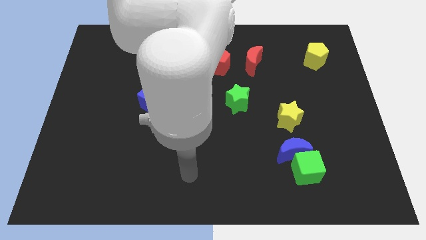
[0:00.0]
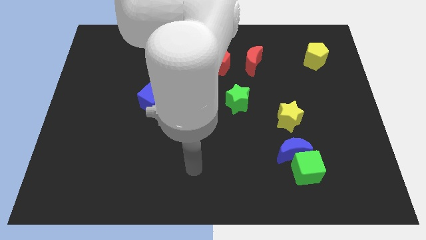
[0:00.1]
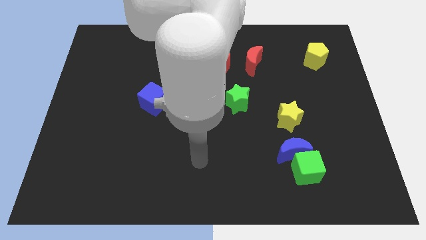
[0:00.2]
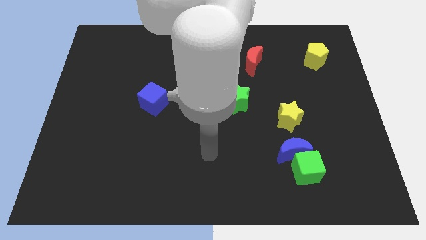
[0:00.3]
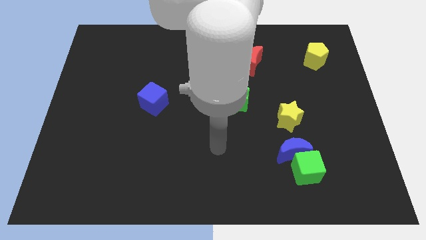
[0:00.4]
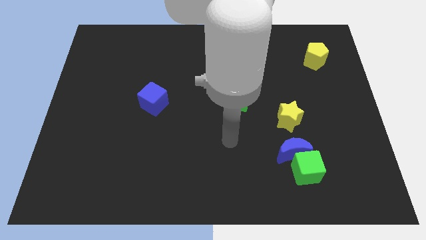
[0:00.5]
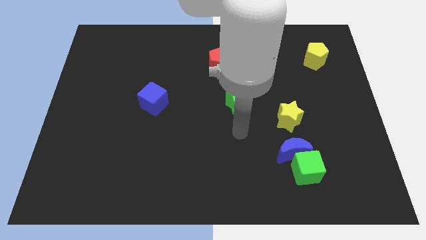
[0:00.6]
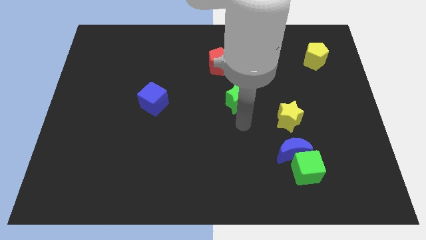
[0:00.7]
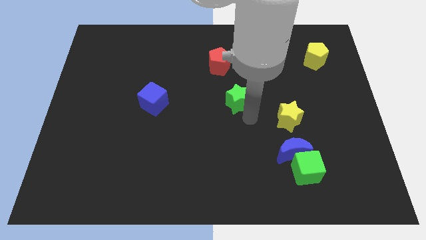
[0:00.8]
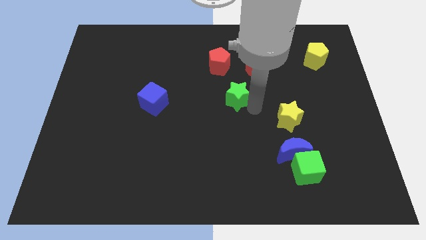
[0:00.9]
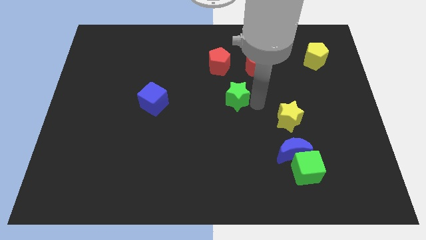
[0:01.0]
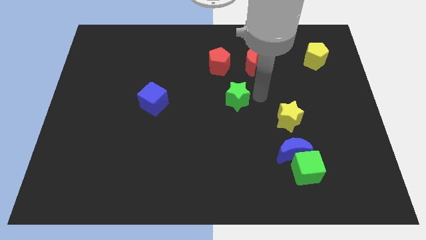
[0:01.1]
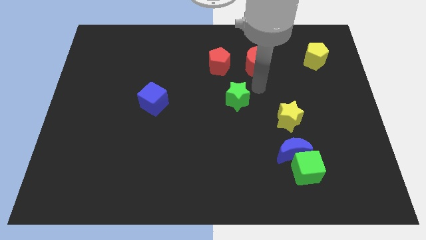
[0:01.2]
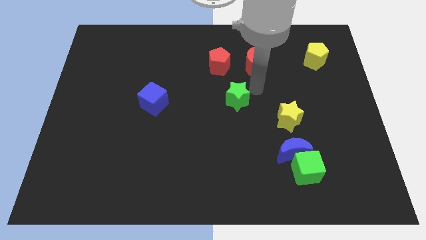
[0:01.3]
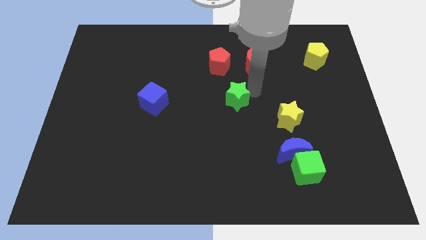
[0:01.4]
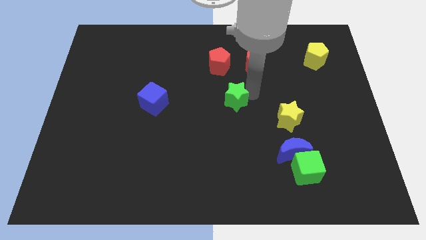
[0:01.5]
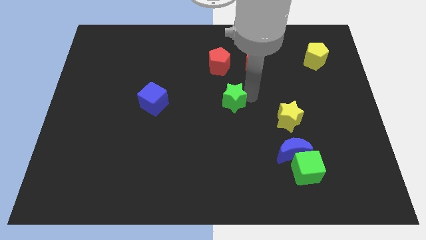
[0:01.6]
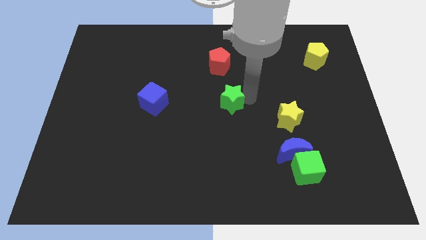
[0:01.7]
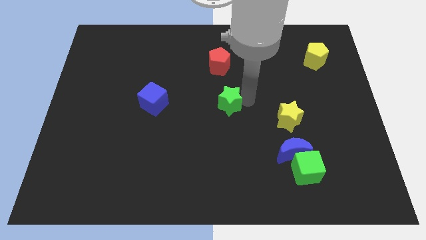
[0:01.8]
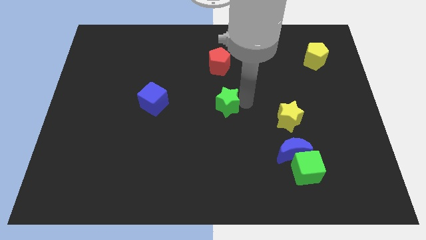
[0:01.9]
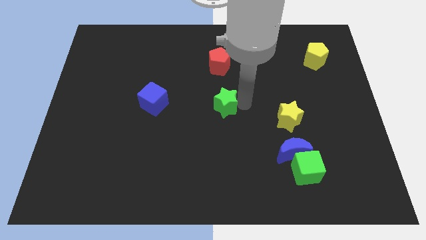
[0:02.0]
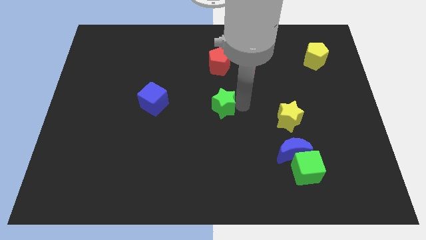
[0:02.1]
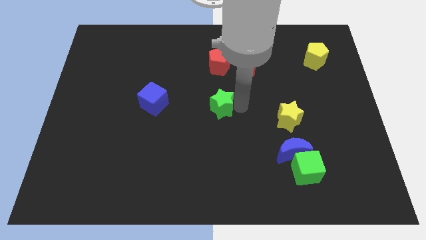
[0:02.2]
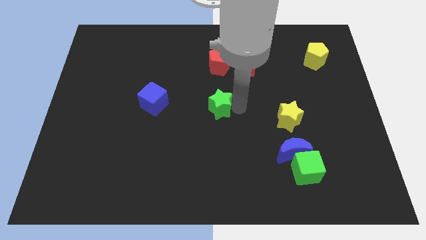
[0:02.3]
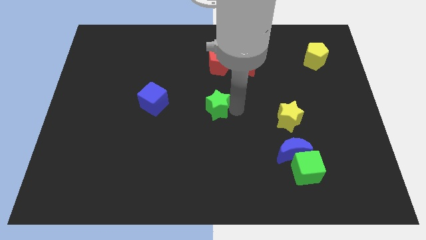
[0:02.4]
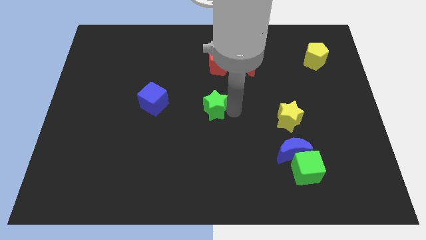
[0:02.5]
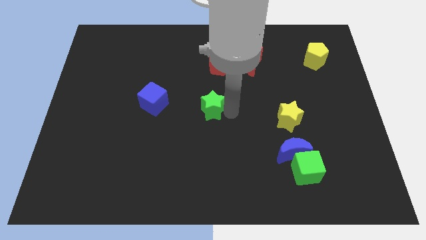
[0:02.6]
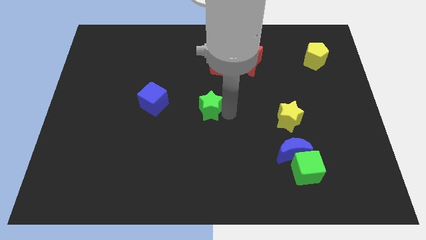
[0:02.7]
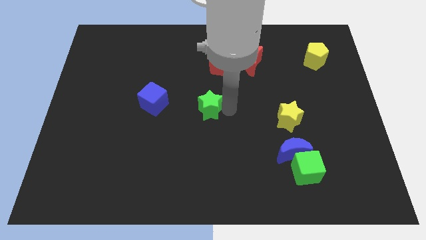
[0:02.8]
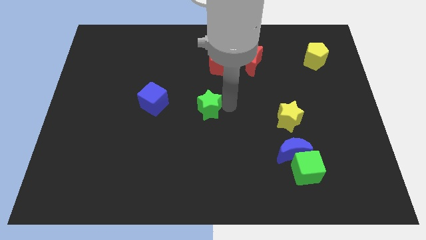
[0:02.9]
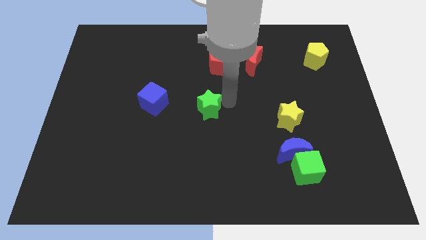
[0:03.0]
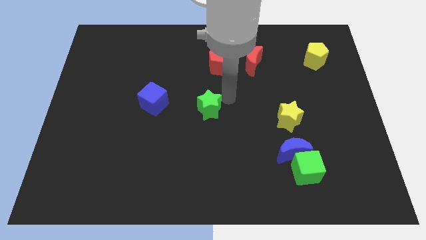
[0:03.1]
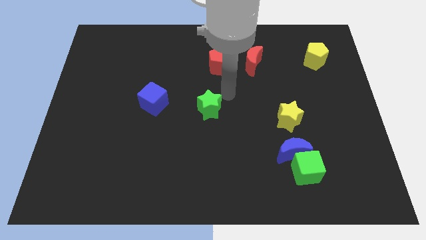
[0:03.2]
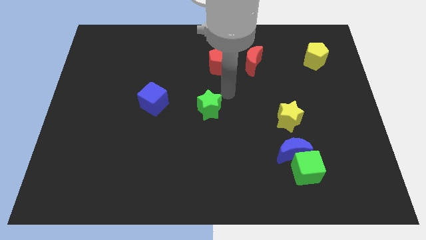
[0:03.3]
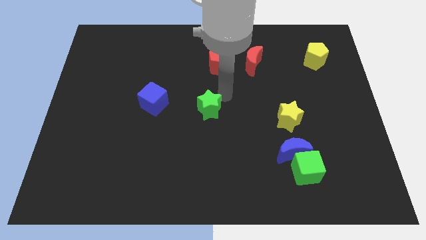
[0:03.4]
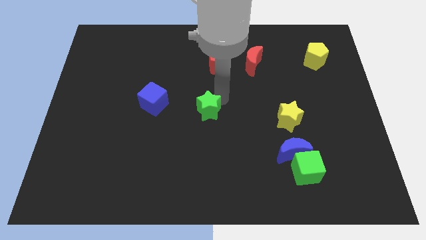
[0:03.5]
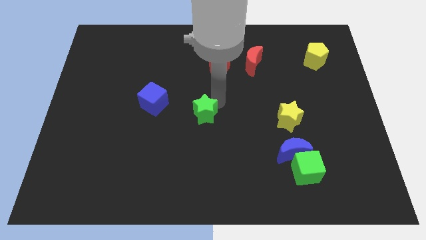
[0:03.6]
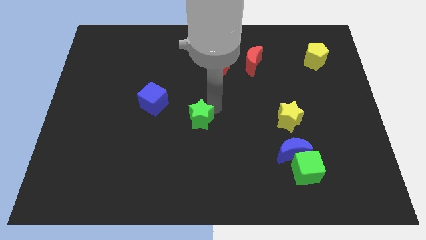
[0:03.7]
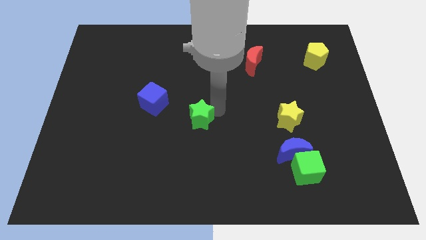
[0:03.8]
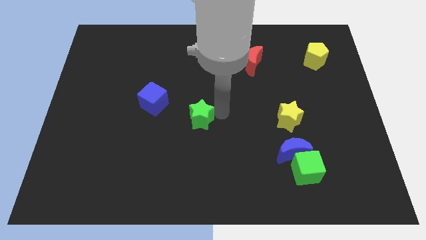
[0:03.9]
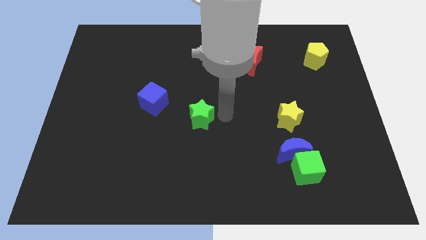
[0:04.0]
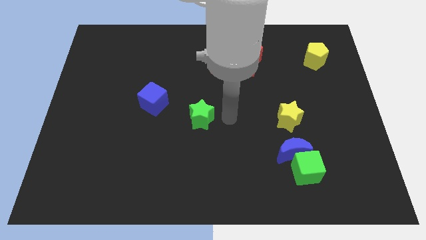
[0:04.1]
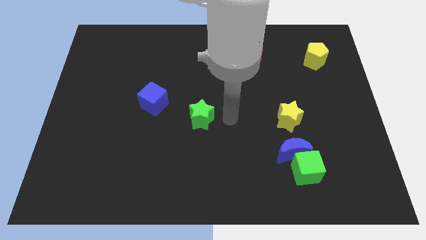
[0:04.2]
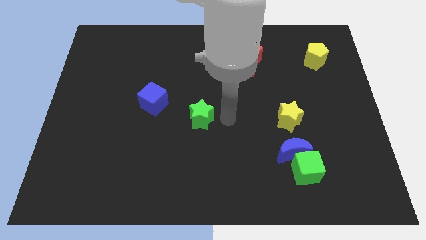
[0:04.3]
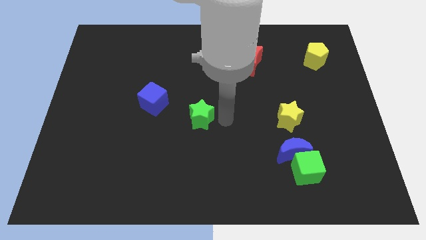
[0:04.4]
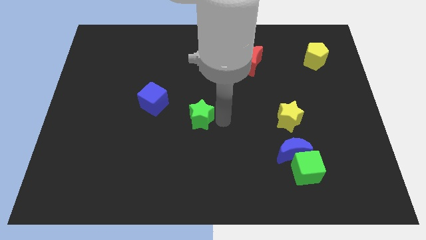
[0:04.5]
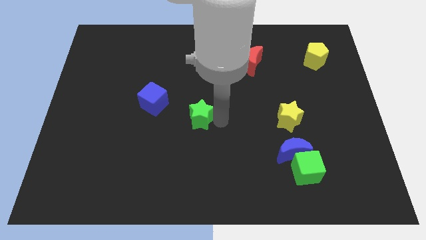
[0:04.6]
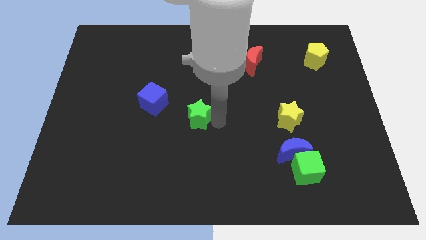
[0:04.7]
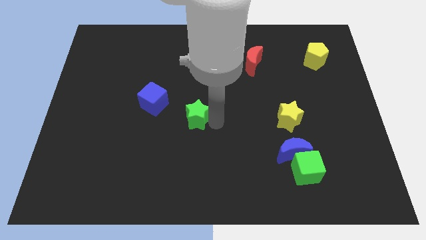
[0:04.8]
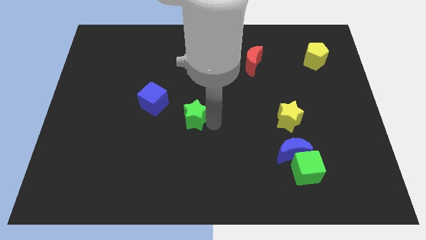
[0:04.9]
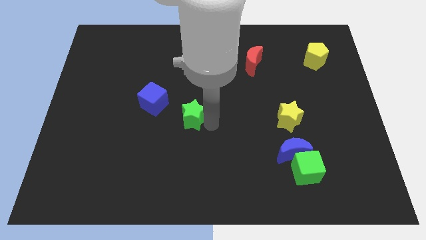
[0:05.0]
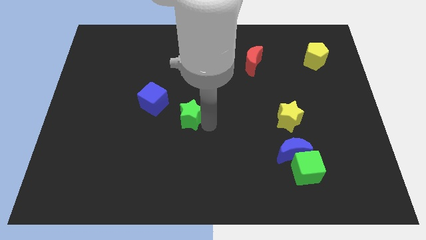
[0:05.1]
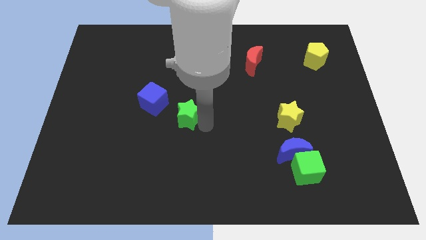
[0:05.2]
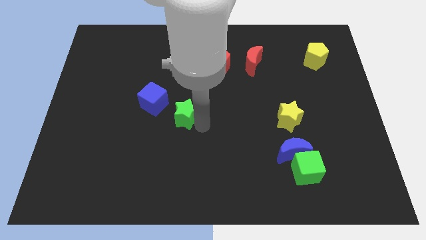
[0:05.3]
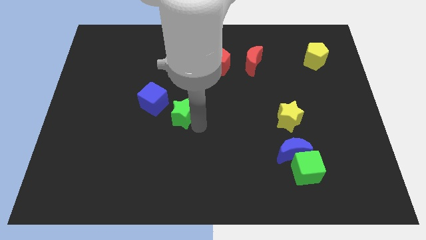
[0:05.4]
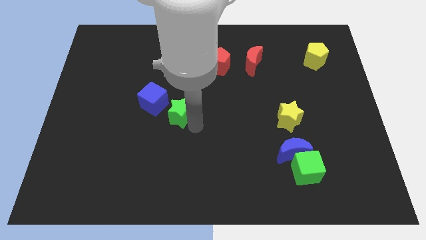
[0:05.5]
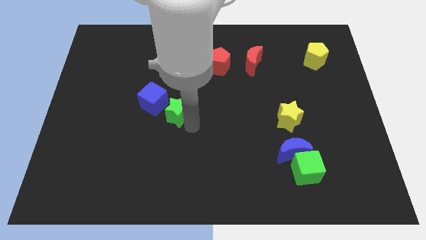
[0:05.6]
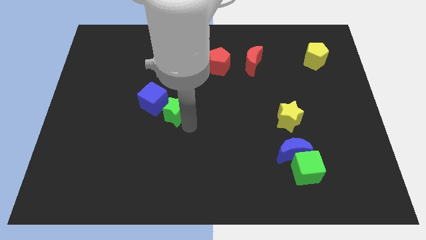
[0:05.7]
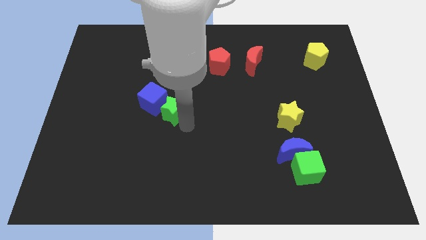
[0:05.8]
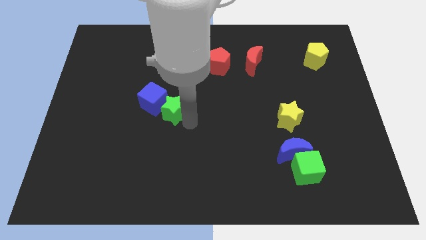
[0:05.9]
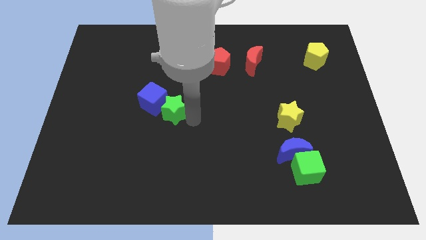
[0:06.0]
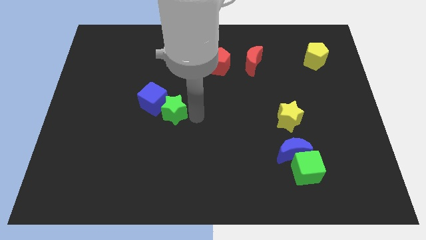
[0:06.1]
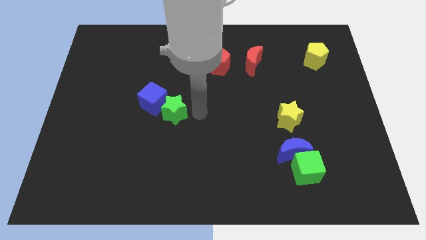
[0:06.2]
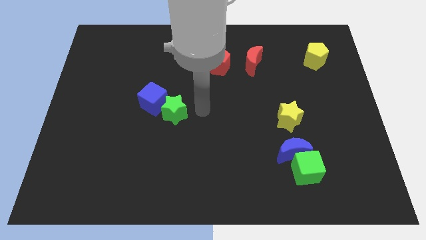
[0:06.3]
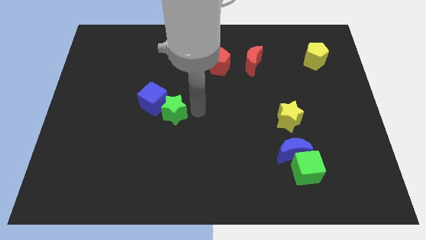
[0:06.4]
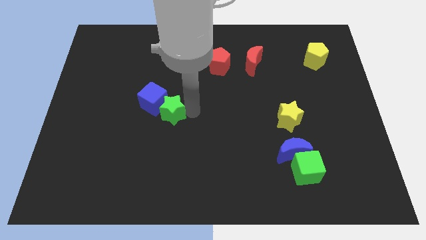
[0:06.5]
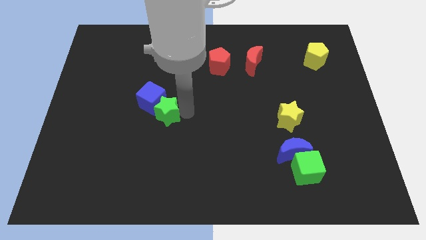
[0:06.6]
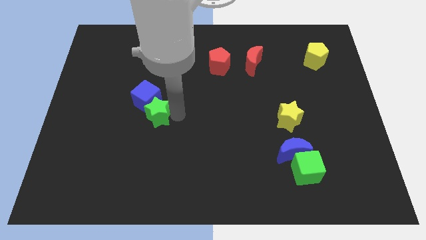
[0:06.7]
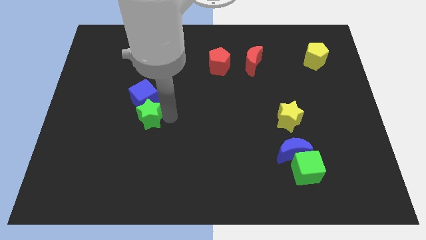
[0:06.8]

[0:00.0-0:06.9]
push the green star left

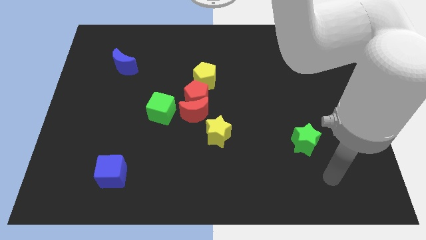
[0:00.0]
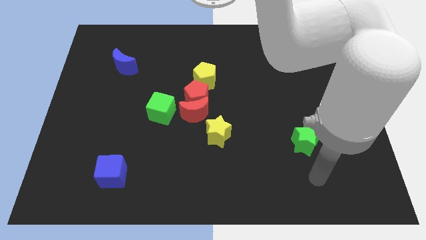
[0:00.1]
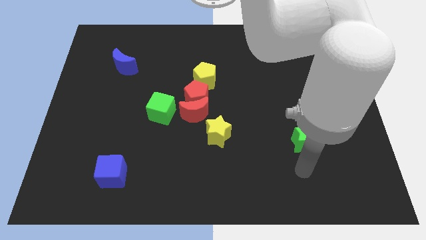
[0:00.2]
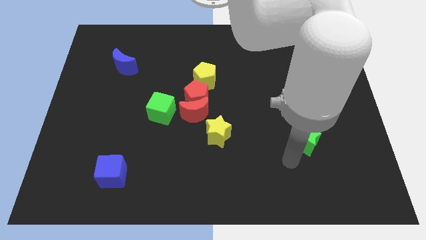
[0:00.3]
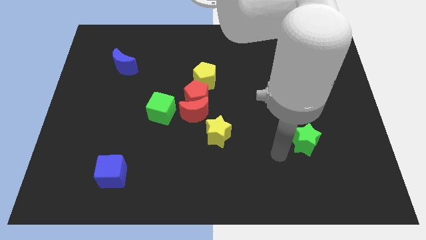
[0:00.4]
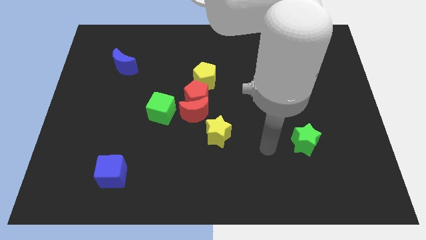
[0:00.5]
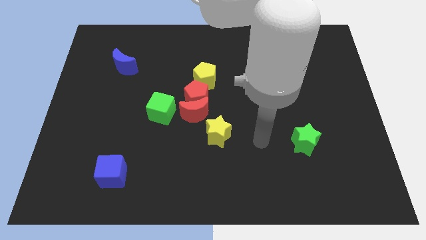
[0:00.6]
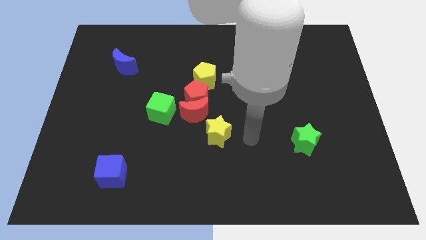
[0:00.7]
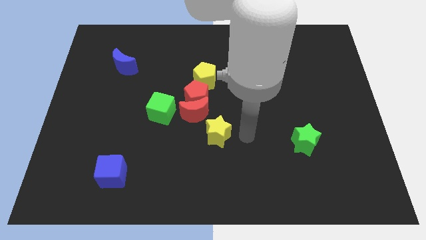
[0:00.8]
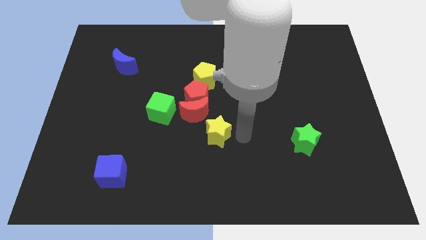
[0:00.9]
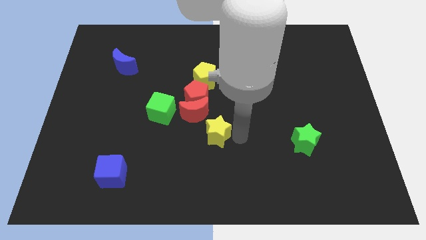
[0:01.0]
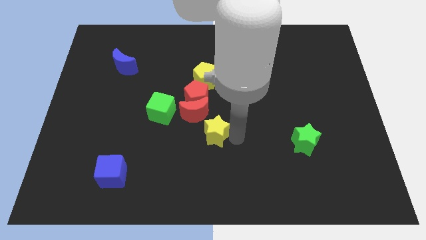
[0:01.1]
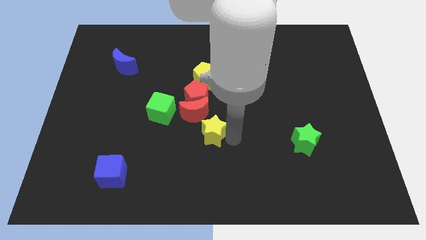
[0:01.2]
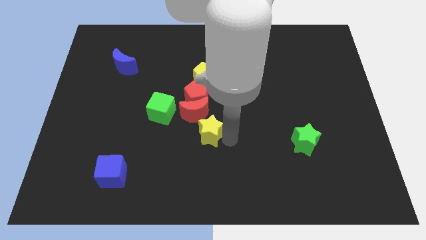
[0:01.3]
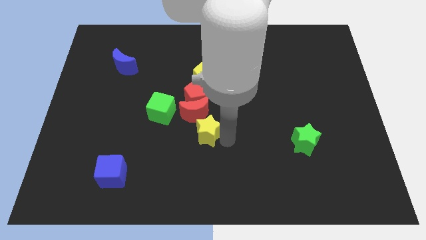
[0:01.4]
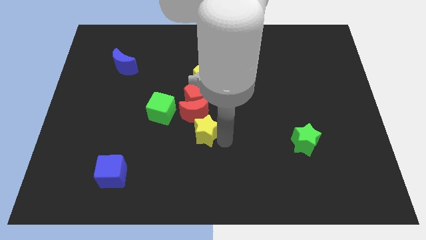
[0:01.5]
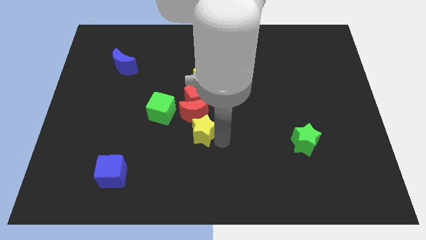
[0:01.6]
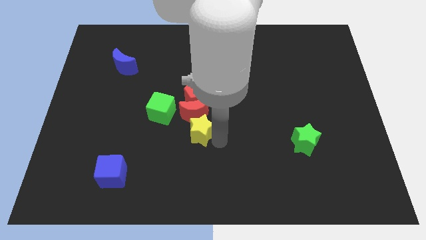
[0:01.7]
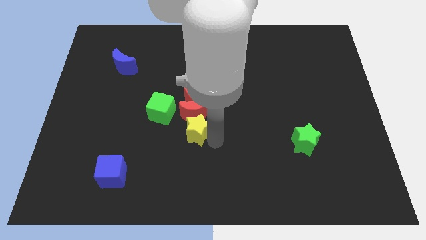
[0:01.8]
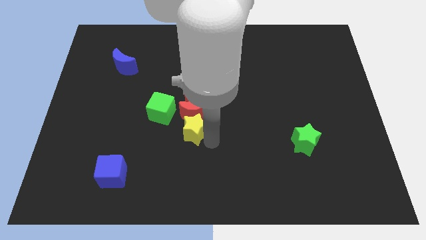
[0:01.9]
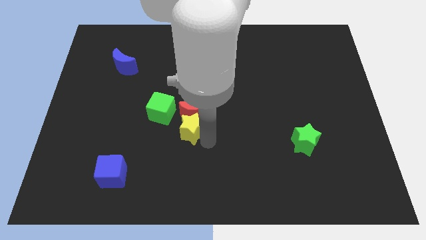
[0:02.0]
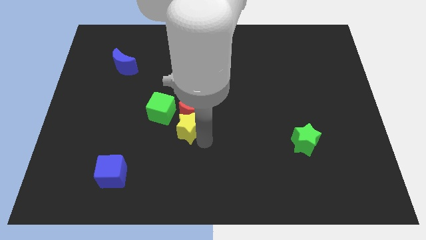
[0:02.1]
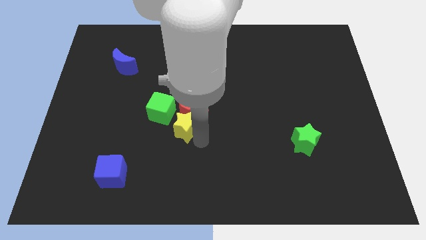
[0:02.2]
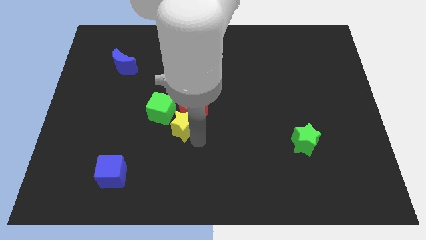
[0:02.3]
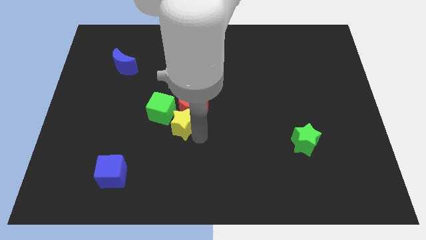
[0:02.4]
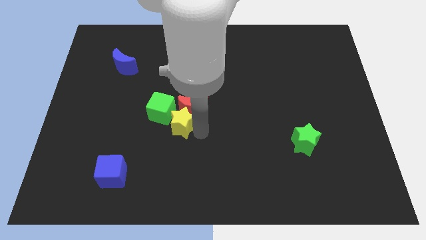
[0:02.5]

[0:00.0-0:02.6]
slightly move the yellow star upwards and to the left
